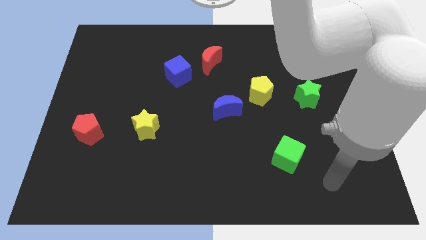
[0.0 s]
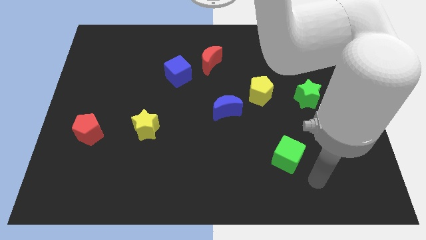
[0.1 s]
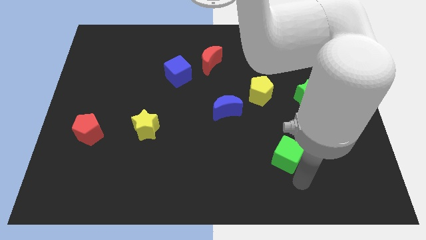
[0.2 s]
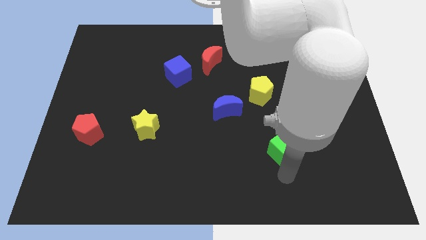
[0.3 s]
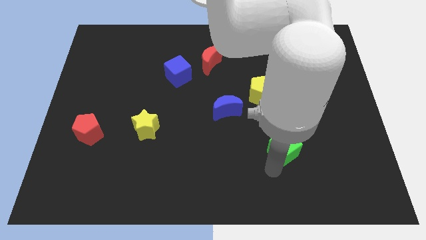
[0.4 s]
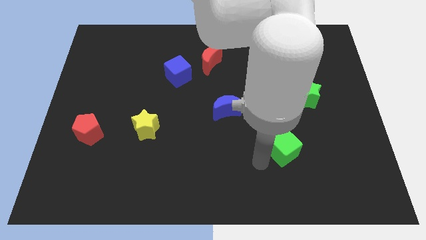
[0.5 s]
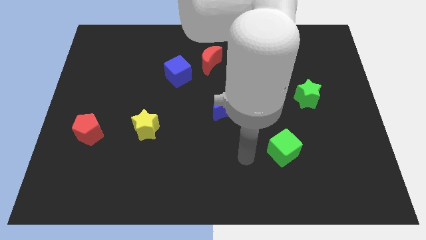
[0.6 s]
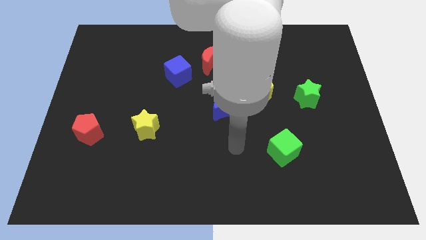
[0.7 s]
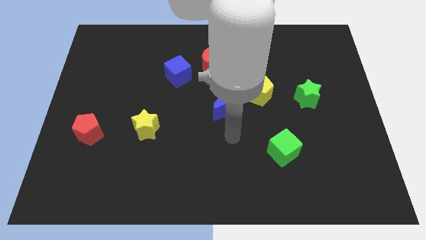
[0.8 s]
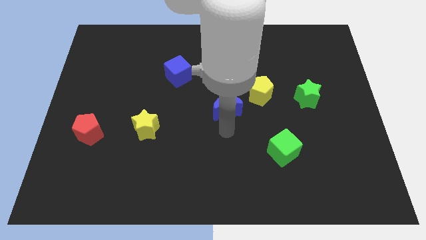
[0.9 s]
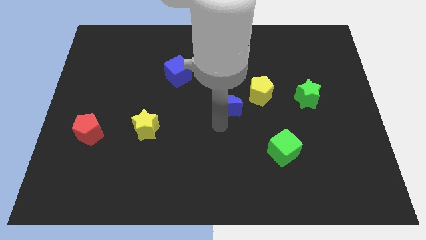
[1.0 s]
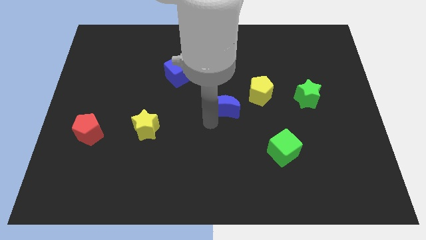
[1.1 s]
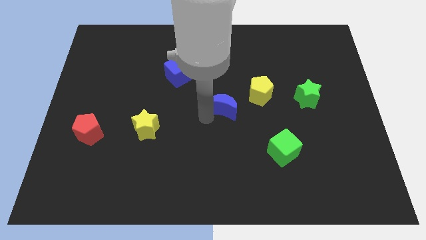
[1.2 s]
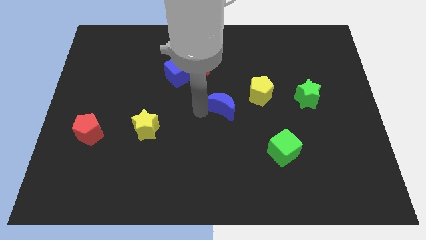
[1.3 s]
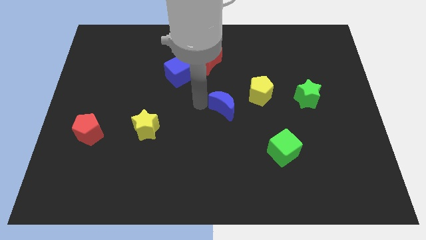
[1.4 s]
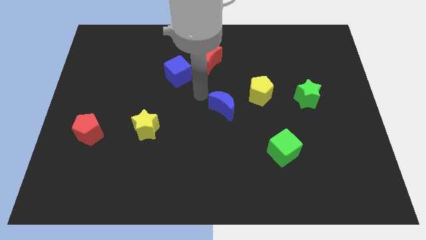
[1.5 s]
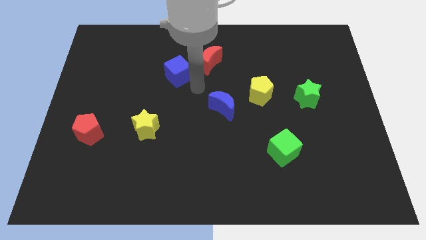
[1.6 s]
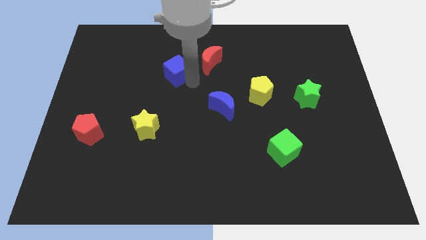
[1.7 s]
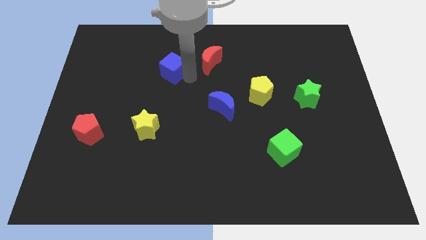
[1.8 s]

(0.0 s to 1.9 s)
pull the red moon apart from the blue cube

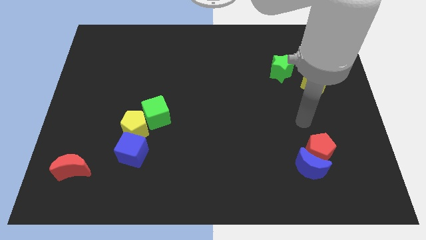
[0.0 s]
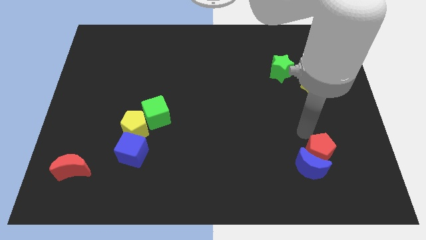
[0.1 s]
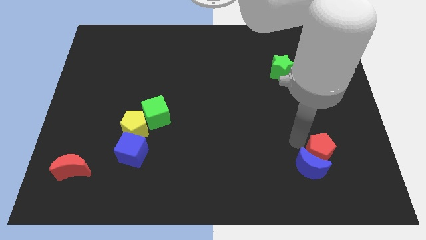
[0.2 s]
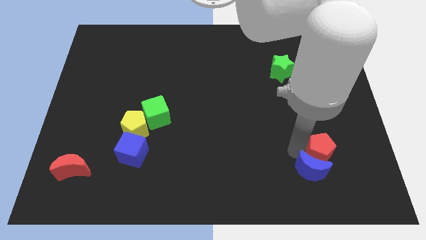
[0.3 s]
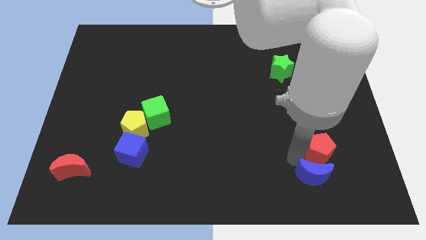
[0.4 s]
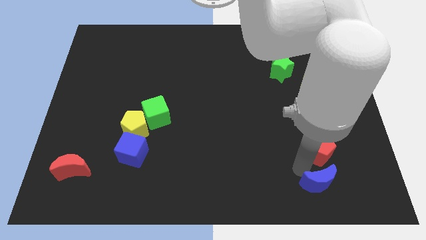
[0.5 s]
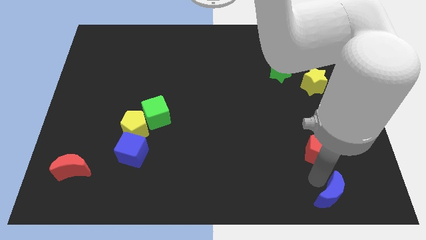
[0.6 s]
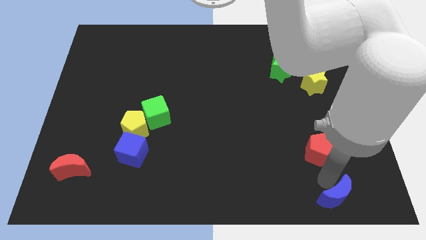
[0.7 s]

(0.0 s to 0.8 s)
move the red pentagon away from the blue moon

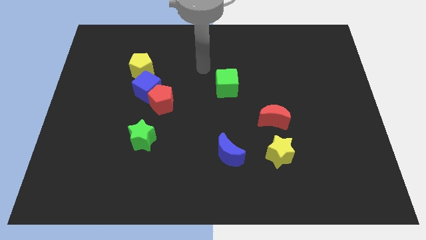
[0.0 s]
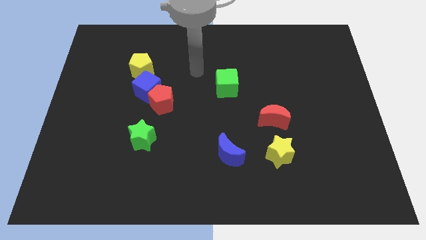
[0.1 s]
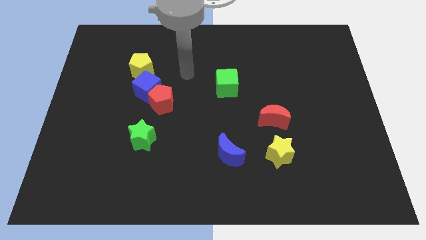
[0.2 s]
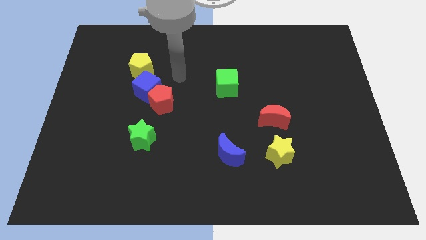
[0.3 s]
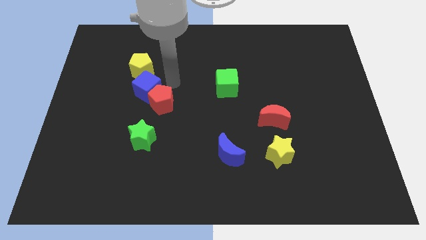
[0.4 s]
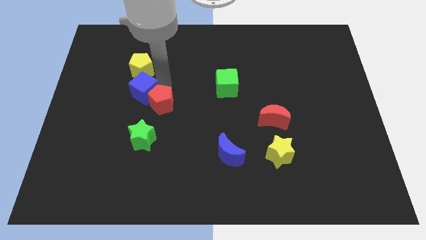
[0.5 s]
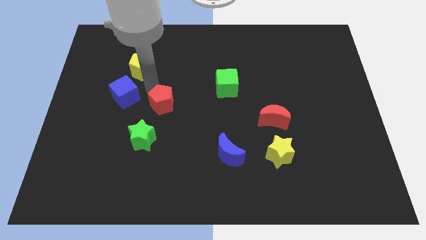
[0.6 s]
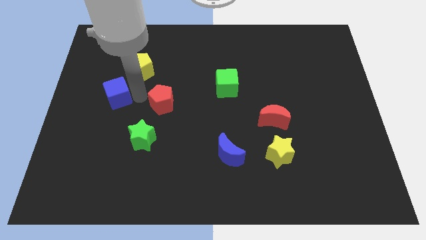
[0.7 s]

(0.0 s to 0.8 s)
separate the red pentagon from the blue cube

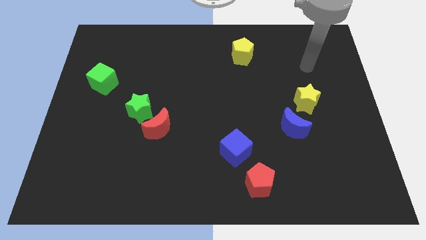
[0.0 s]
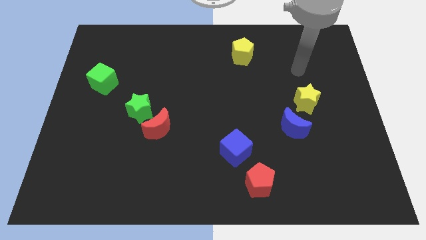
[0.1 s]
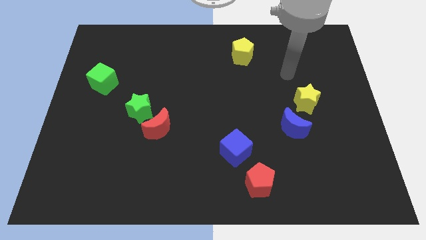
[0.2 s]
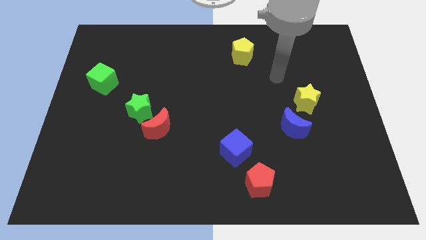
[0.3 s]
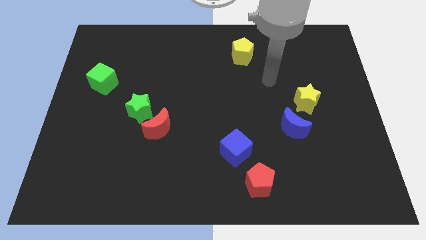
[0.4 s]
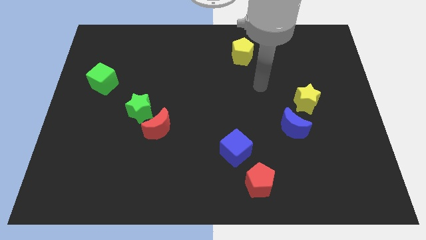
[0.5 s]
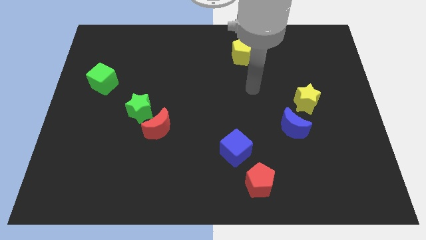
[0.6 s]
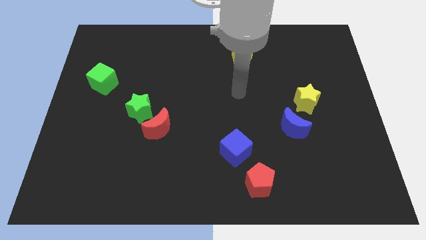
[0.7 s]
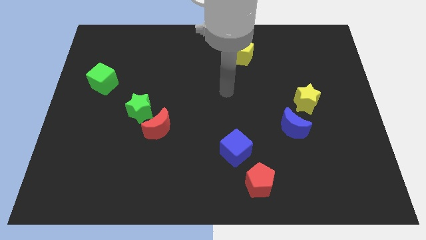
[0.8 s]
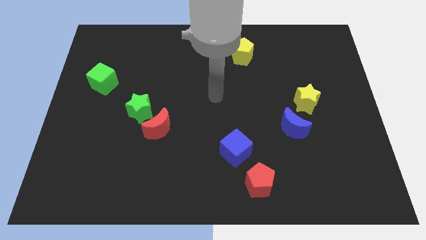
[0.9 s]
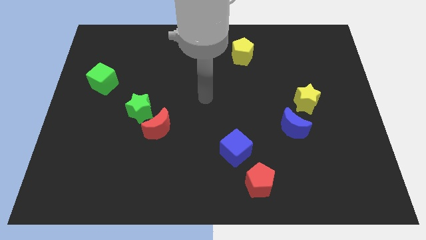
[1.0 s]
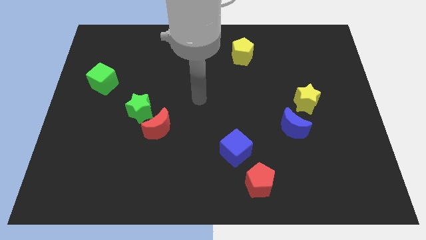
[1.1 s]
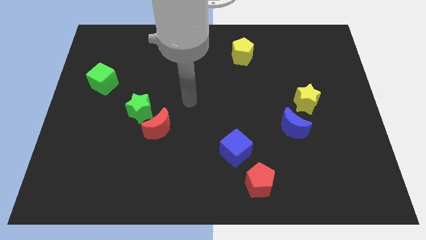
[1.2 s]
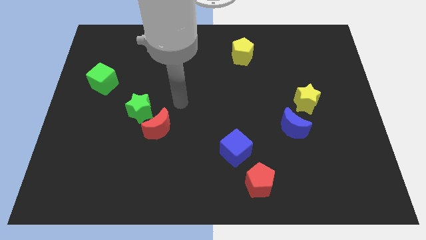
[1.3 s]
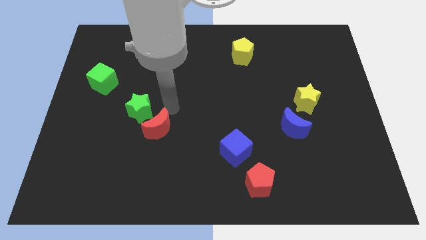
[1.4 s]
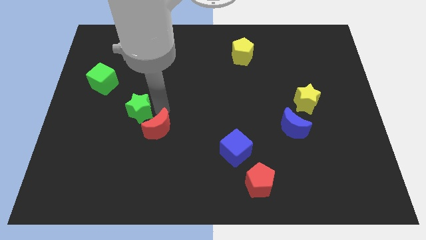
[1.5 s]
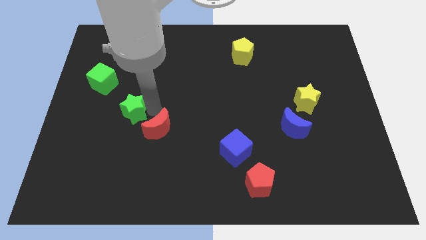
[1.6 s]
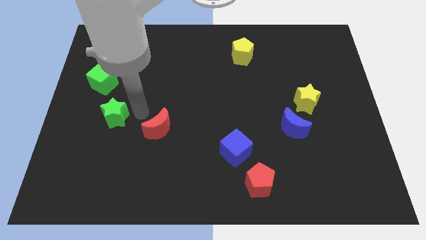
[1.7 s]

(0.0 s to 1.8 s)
move the red moon away from the green star

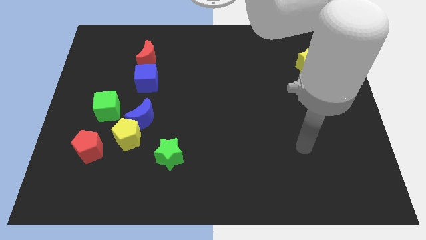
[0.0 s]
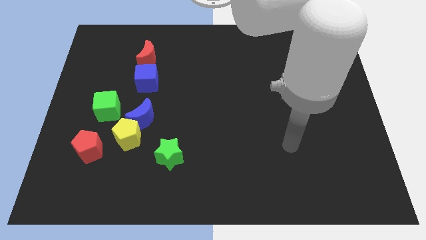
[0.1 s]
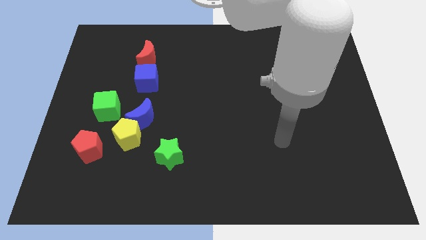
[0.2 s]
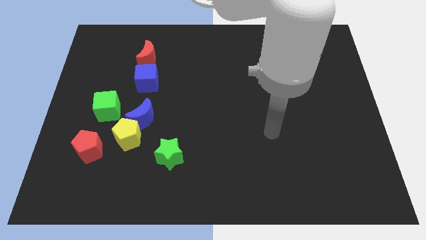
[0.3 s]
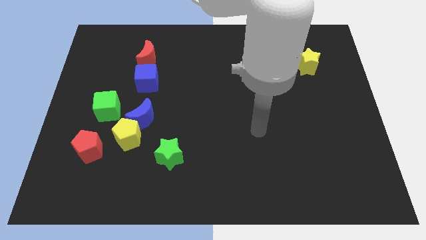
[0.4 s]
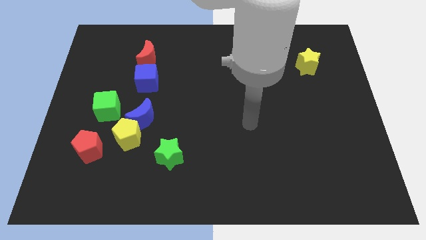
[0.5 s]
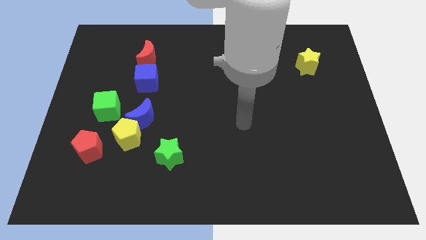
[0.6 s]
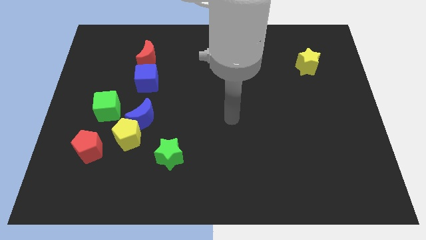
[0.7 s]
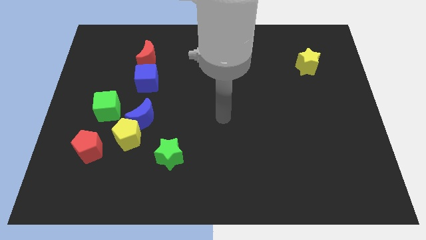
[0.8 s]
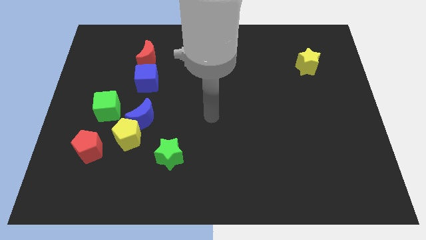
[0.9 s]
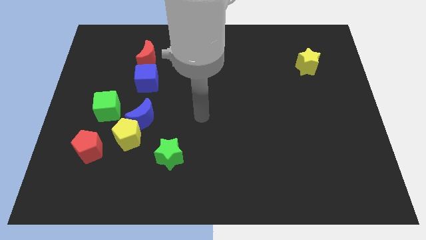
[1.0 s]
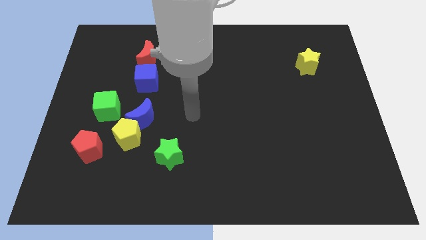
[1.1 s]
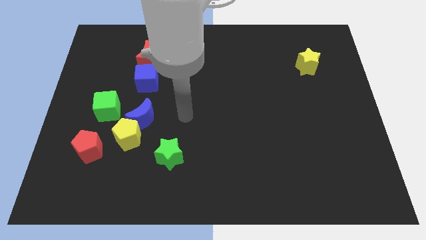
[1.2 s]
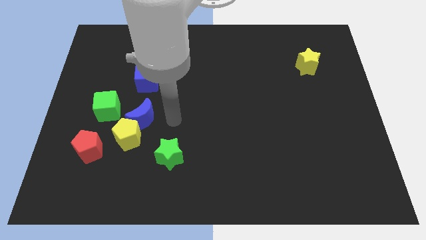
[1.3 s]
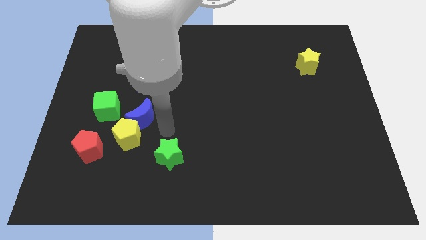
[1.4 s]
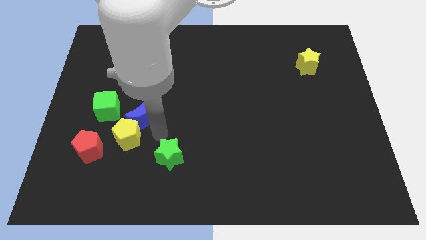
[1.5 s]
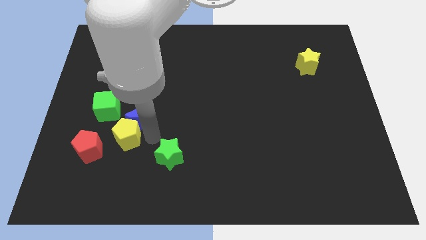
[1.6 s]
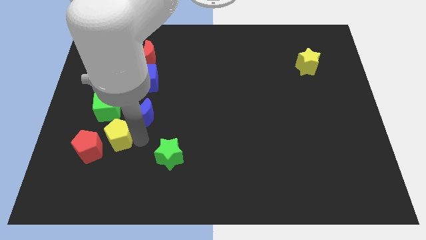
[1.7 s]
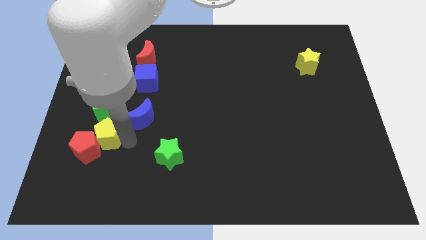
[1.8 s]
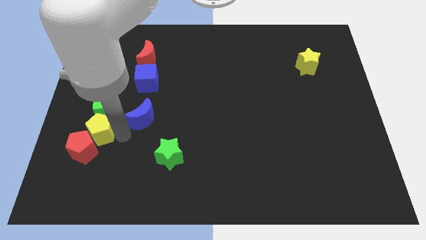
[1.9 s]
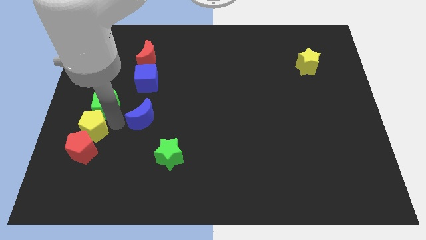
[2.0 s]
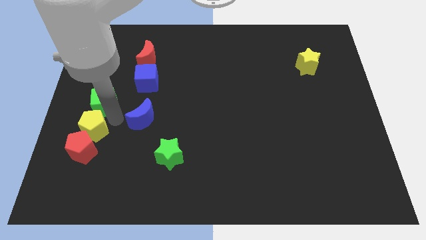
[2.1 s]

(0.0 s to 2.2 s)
move the blue moon away from the yellow pentagon and green cube

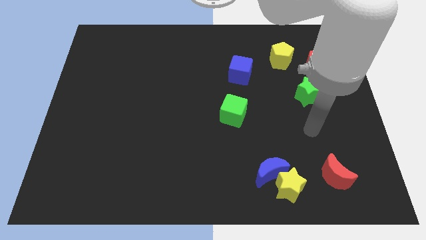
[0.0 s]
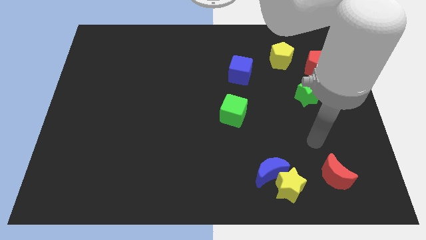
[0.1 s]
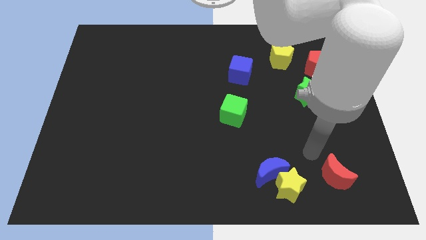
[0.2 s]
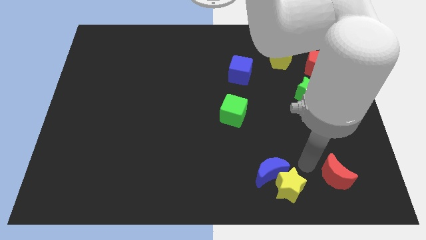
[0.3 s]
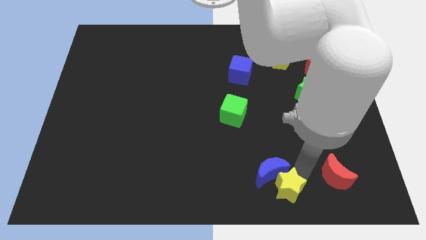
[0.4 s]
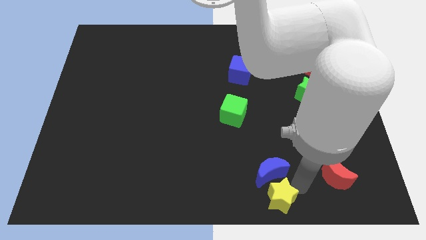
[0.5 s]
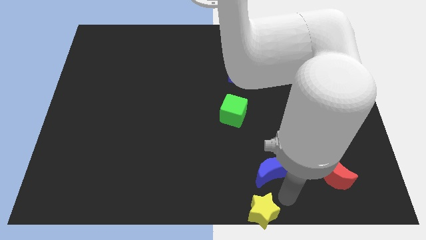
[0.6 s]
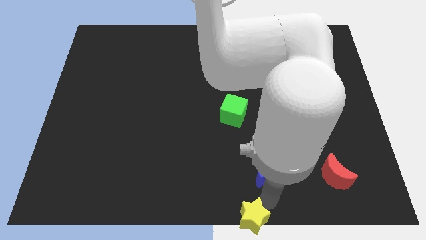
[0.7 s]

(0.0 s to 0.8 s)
pull the blue moon apart from the yellow star

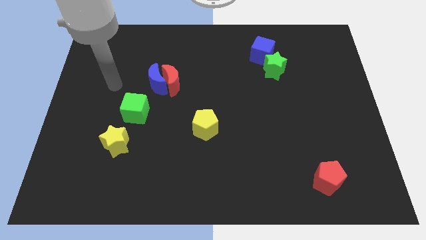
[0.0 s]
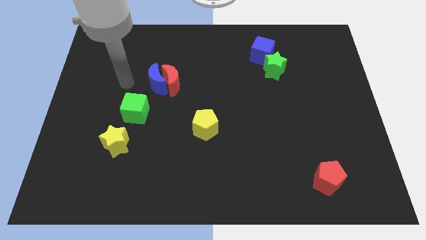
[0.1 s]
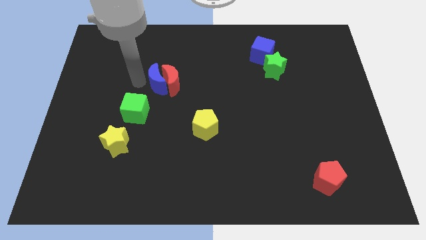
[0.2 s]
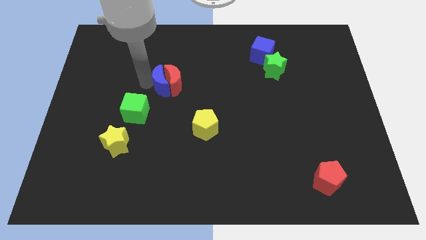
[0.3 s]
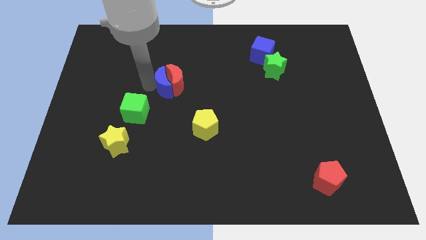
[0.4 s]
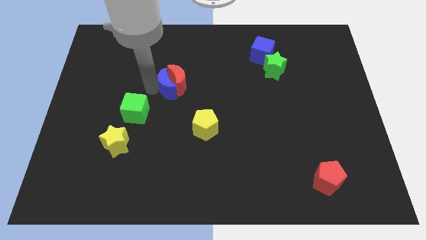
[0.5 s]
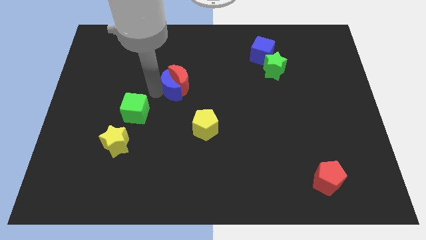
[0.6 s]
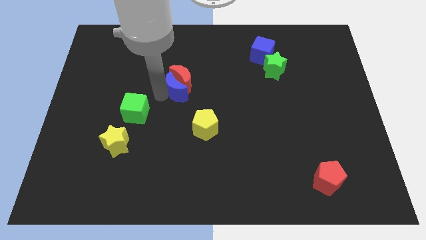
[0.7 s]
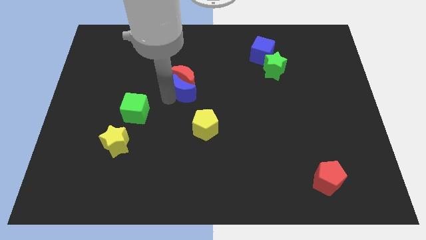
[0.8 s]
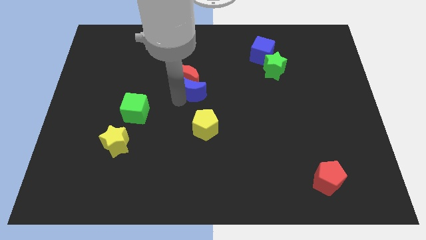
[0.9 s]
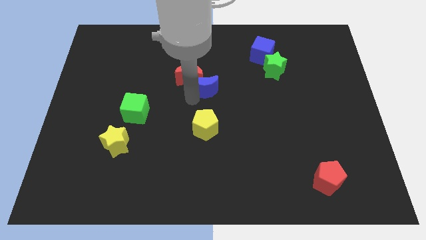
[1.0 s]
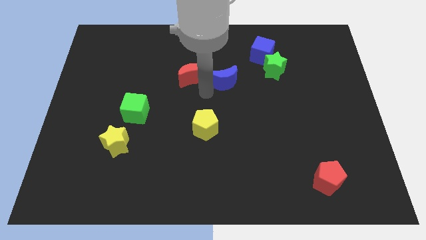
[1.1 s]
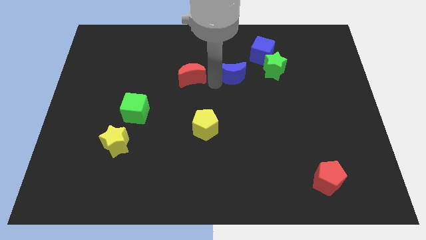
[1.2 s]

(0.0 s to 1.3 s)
separate the red moon from the blue moon
